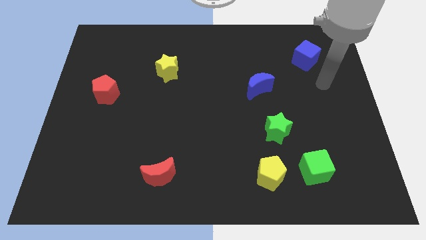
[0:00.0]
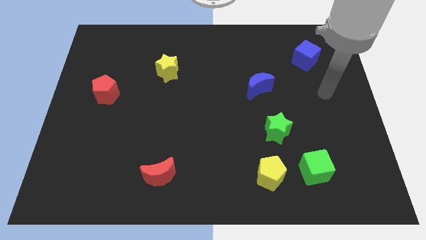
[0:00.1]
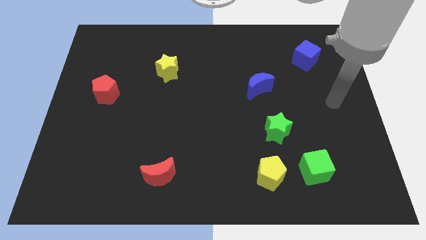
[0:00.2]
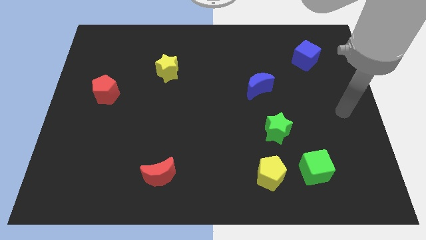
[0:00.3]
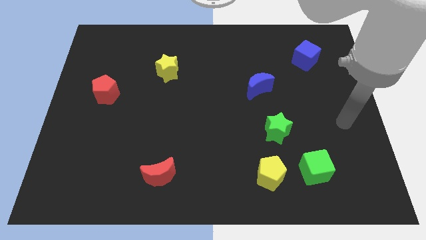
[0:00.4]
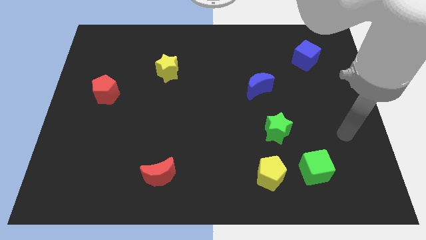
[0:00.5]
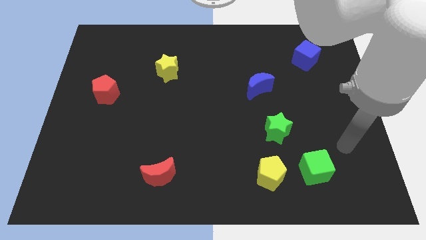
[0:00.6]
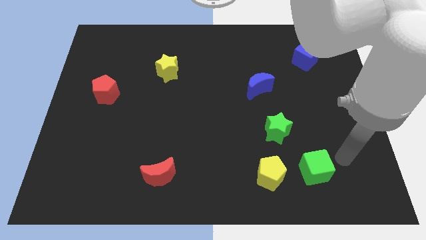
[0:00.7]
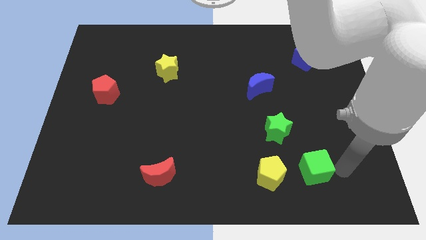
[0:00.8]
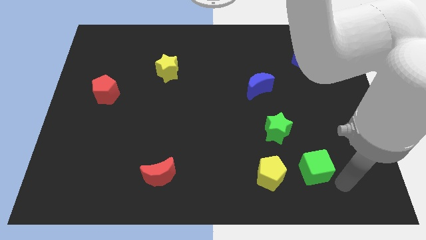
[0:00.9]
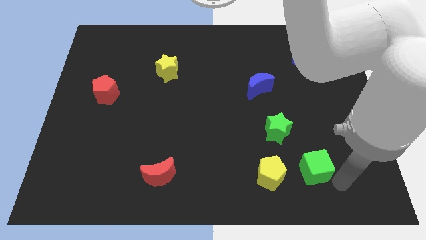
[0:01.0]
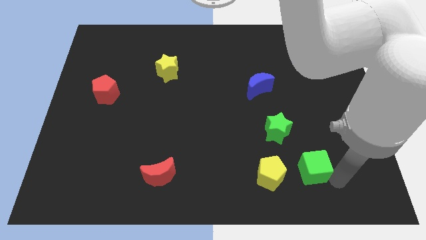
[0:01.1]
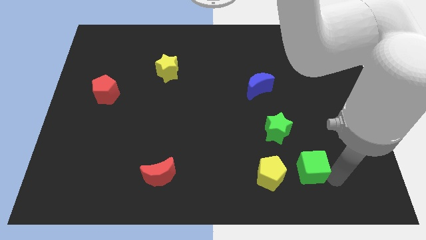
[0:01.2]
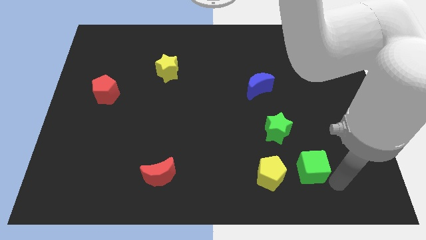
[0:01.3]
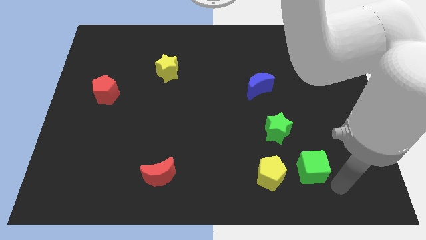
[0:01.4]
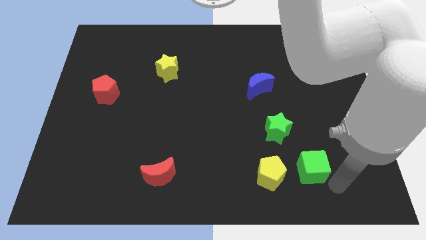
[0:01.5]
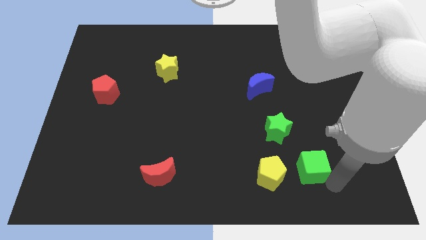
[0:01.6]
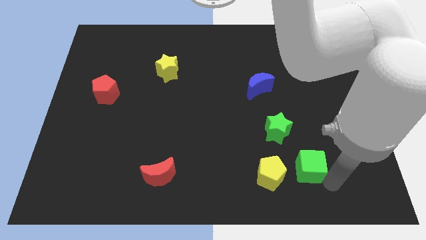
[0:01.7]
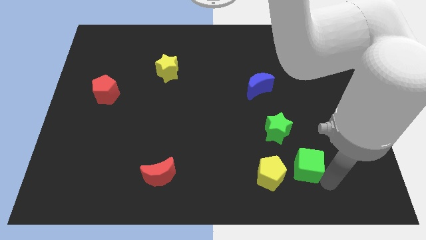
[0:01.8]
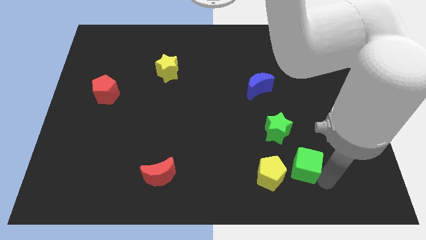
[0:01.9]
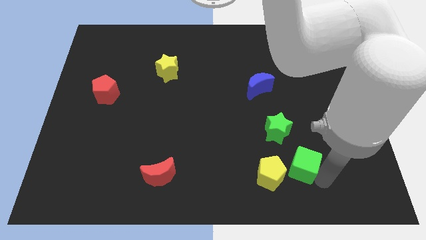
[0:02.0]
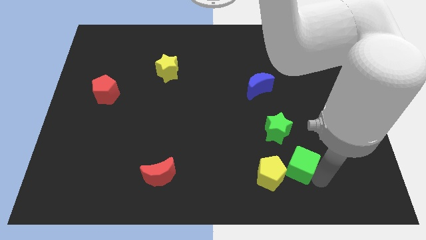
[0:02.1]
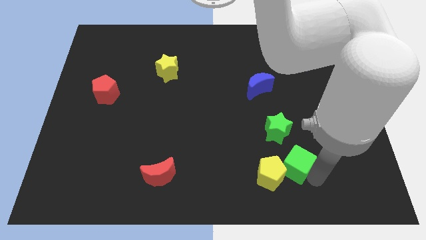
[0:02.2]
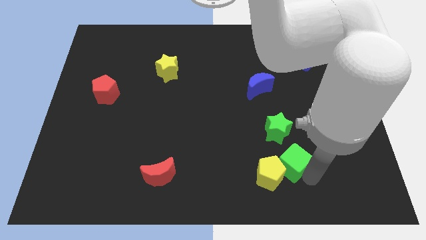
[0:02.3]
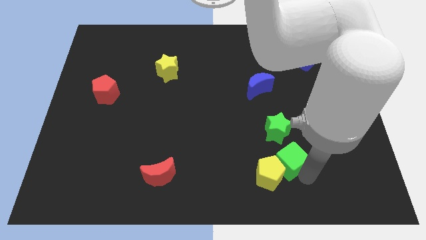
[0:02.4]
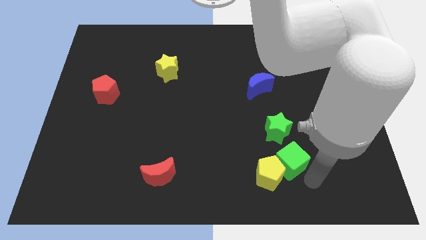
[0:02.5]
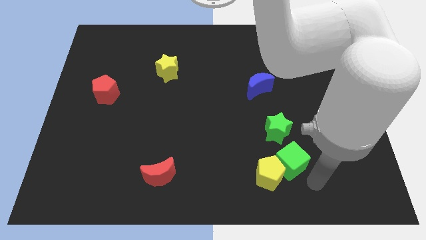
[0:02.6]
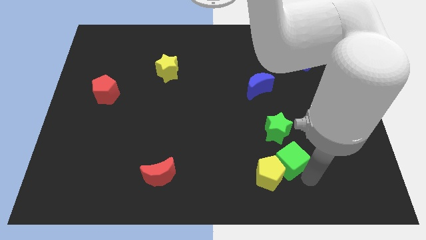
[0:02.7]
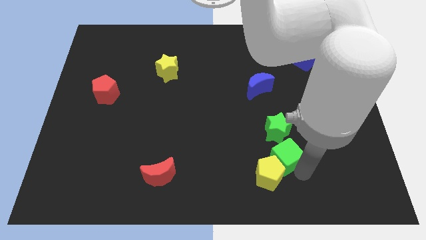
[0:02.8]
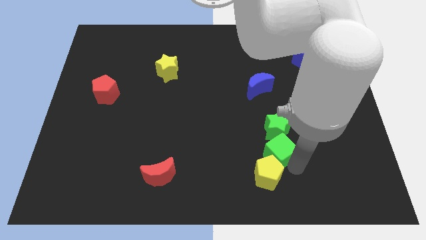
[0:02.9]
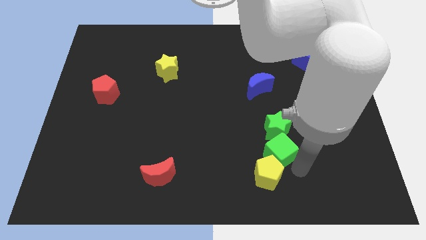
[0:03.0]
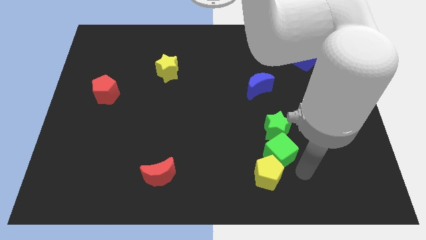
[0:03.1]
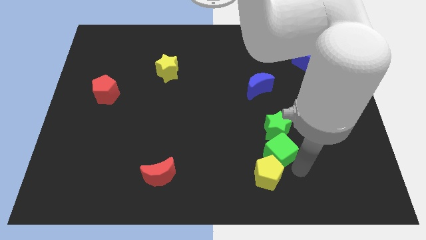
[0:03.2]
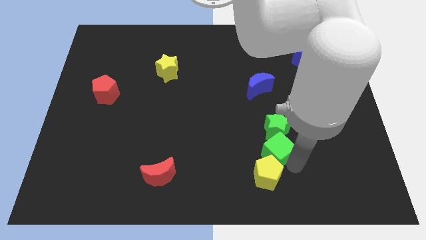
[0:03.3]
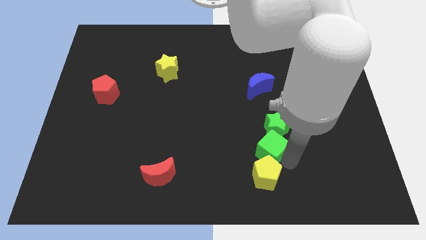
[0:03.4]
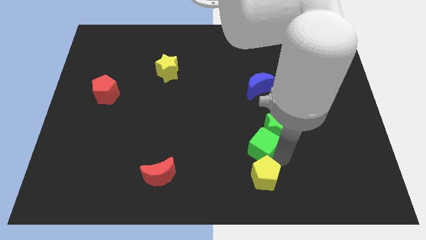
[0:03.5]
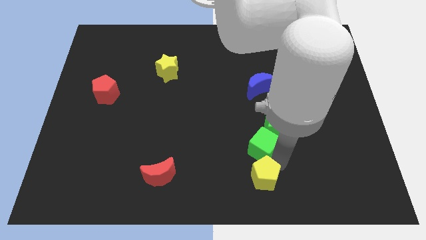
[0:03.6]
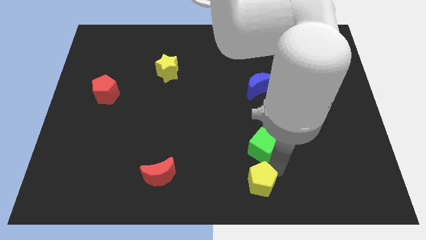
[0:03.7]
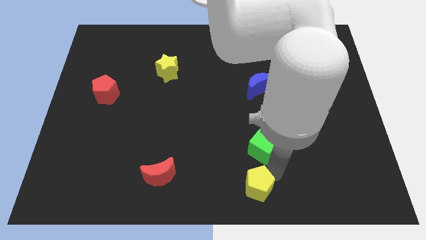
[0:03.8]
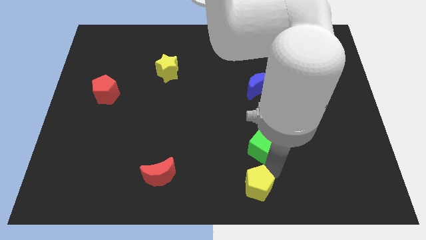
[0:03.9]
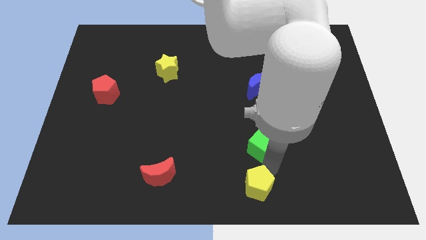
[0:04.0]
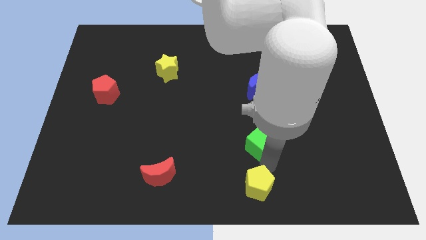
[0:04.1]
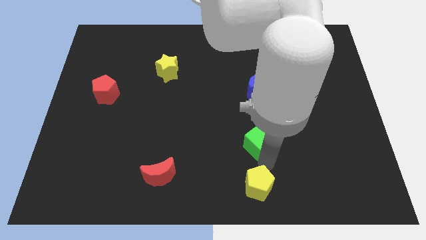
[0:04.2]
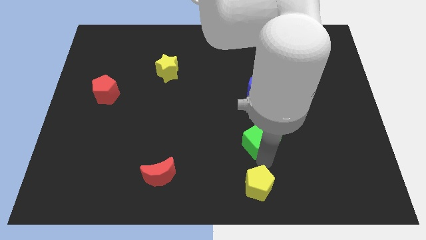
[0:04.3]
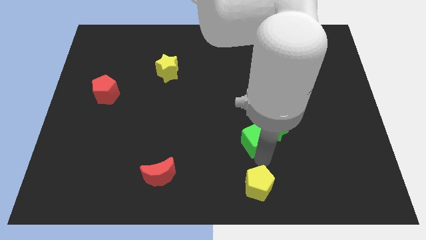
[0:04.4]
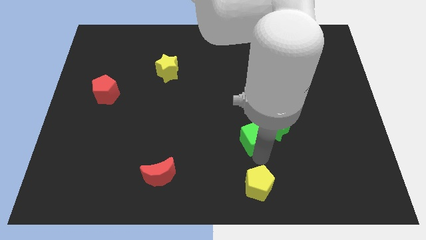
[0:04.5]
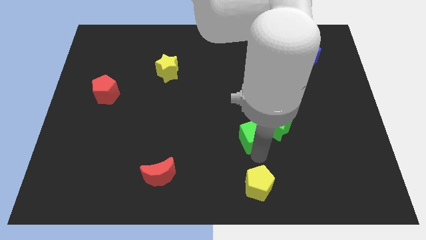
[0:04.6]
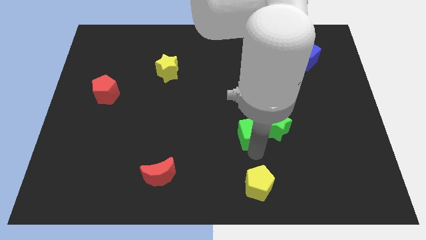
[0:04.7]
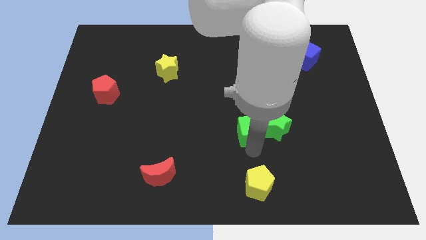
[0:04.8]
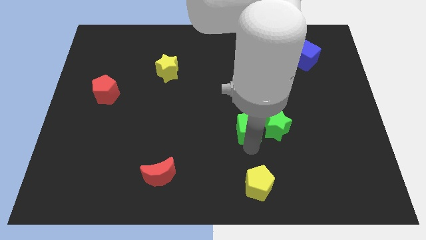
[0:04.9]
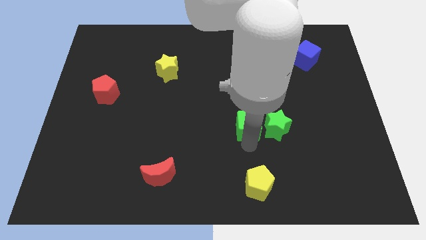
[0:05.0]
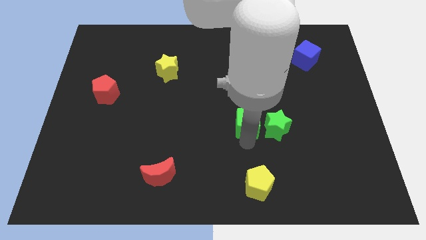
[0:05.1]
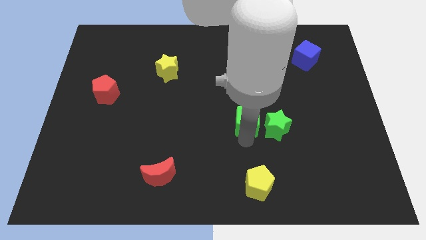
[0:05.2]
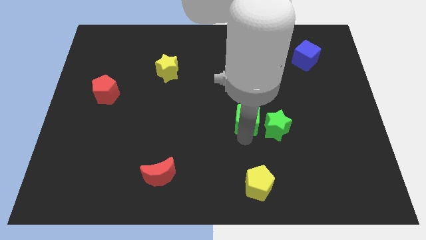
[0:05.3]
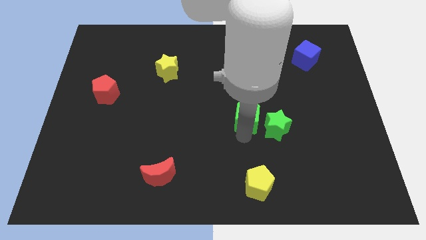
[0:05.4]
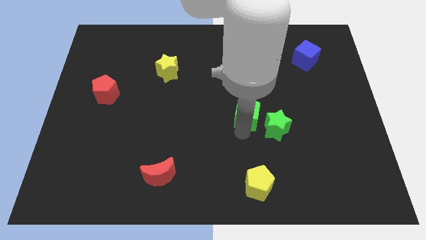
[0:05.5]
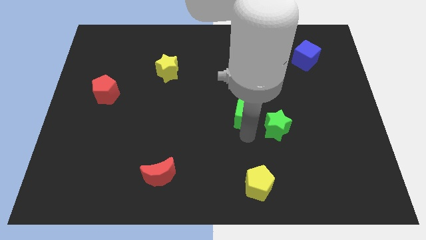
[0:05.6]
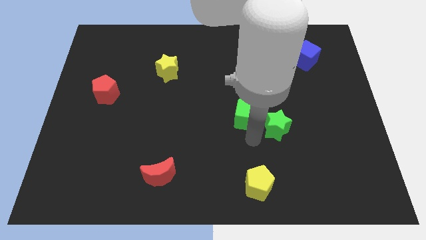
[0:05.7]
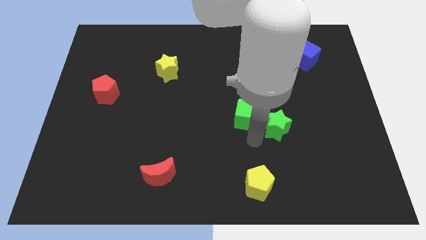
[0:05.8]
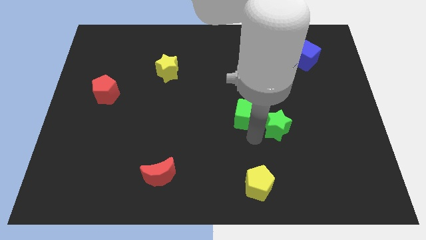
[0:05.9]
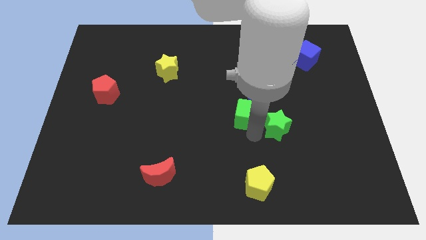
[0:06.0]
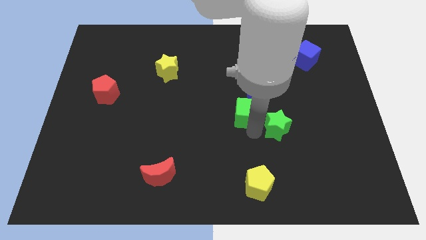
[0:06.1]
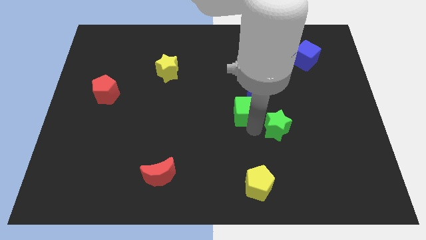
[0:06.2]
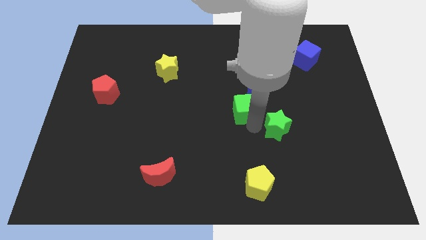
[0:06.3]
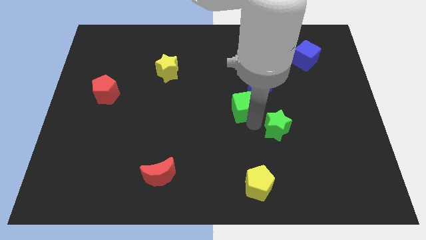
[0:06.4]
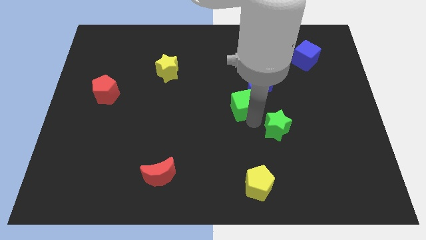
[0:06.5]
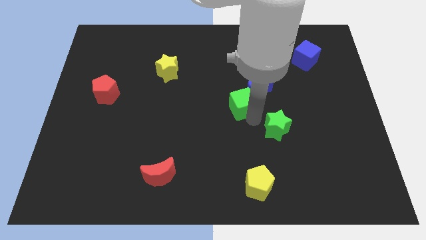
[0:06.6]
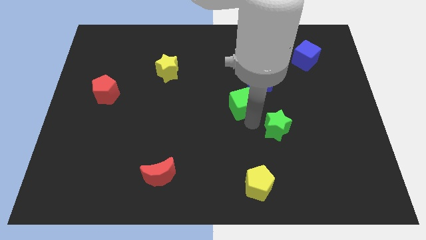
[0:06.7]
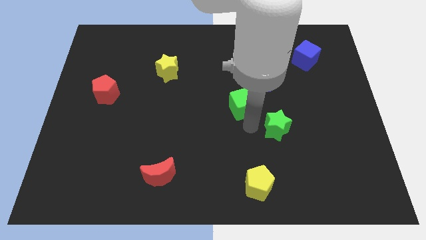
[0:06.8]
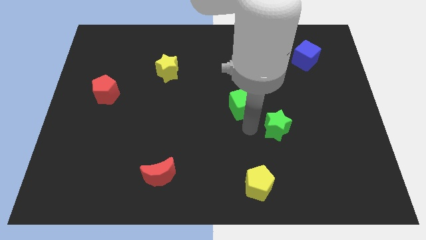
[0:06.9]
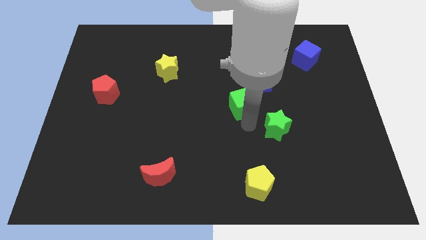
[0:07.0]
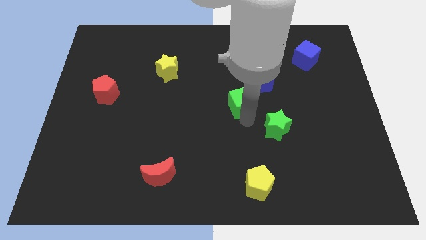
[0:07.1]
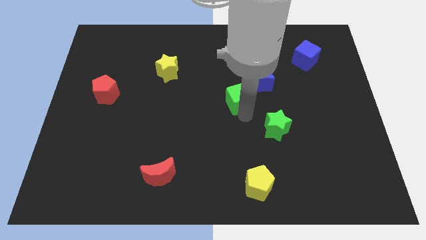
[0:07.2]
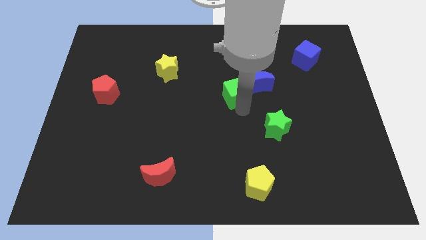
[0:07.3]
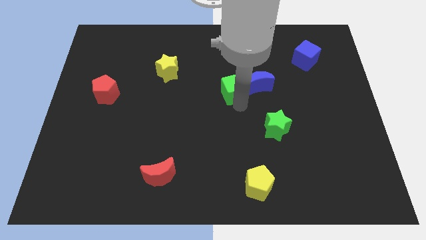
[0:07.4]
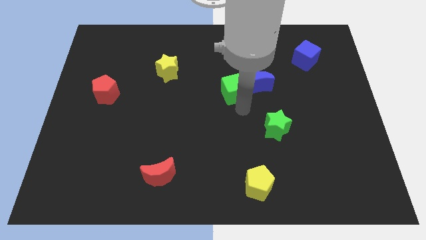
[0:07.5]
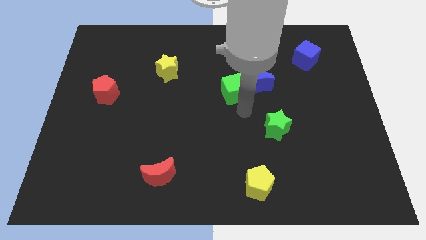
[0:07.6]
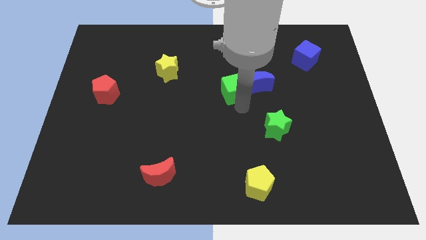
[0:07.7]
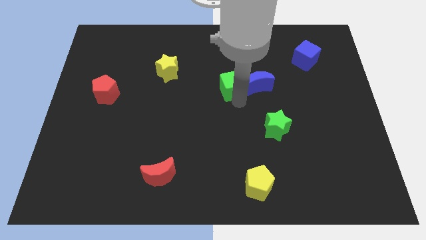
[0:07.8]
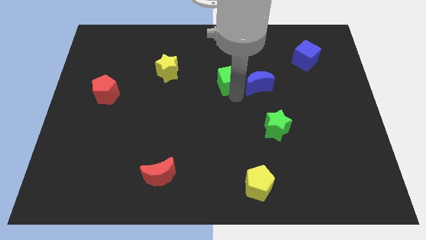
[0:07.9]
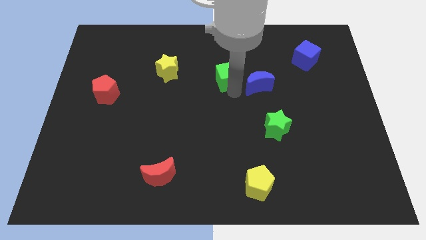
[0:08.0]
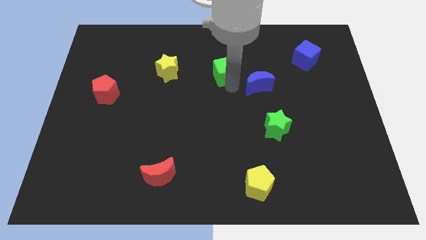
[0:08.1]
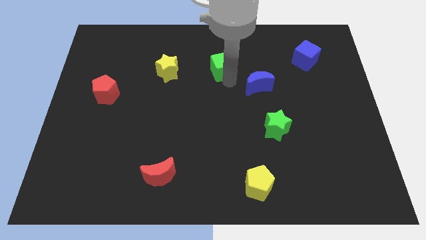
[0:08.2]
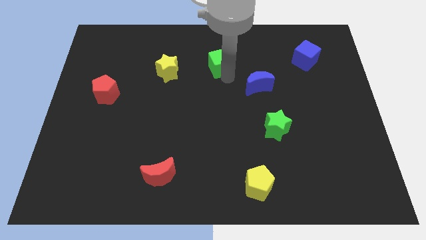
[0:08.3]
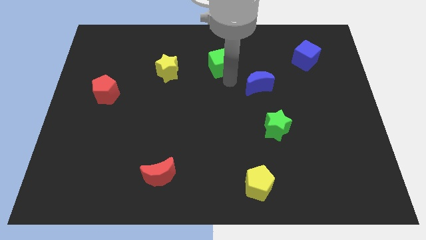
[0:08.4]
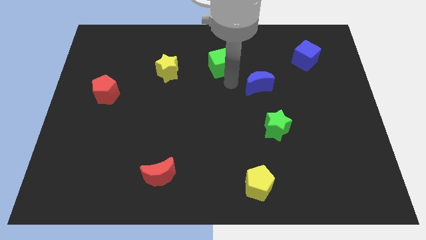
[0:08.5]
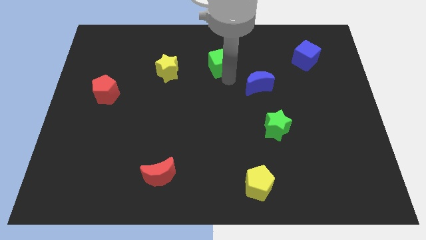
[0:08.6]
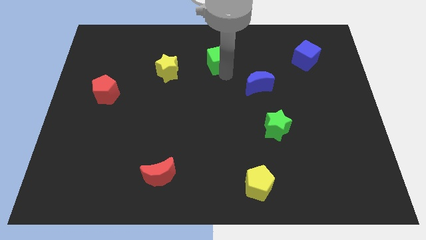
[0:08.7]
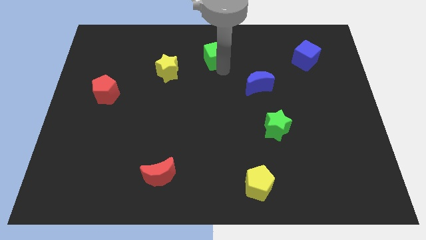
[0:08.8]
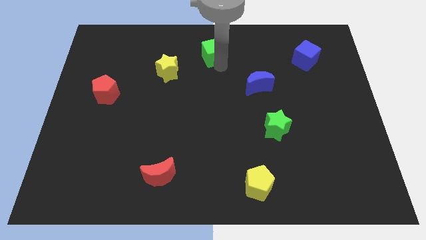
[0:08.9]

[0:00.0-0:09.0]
move the green cube to the top
